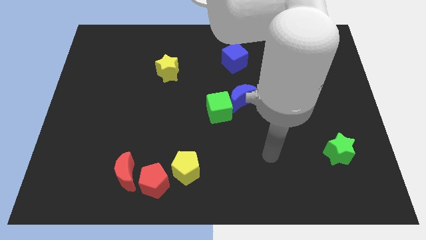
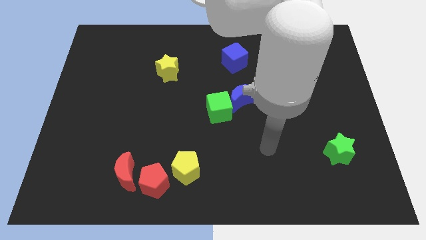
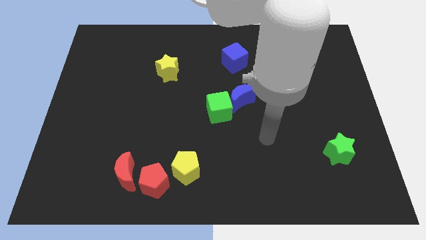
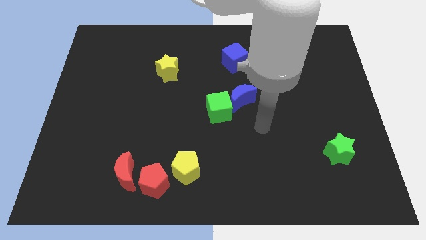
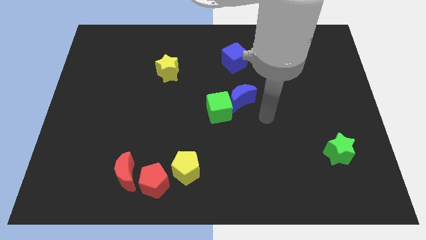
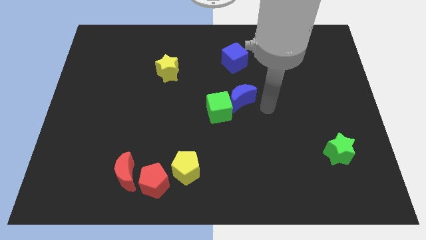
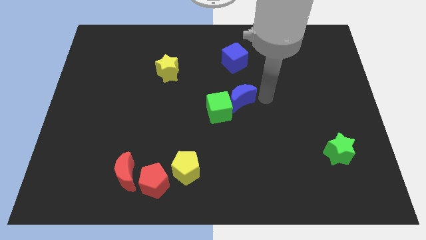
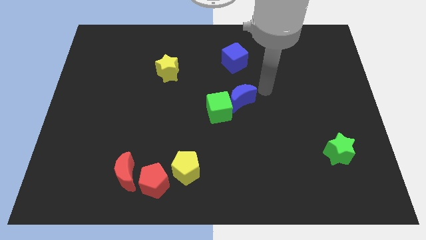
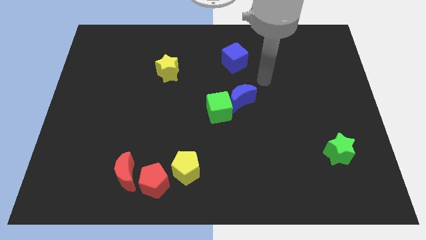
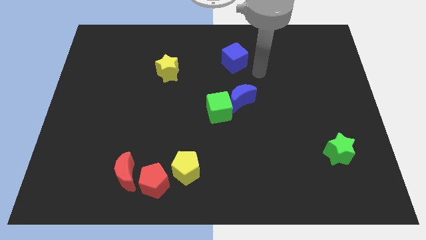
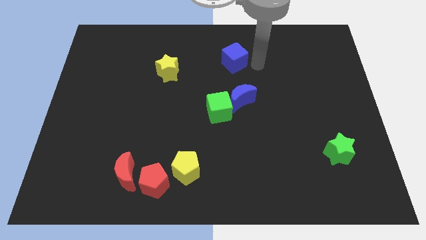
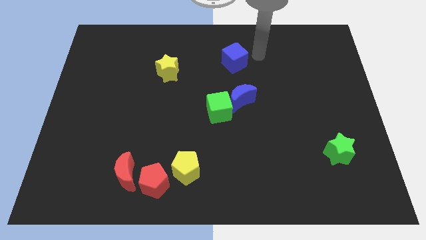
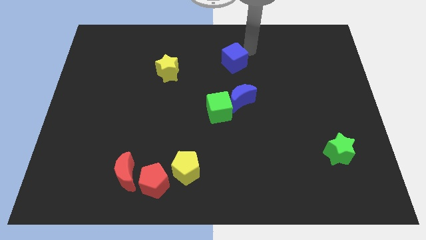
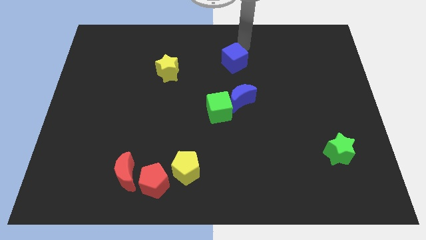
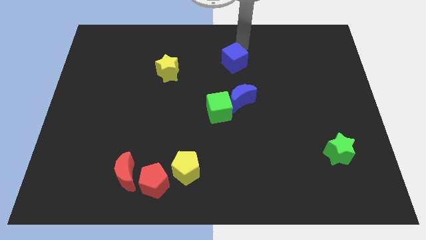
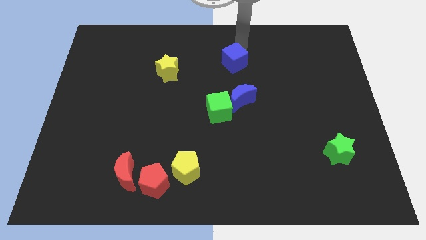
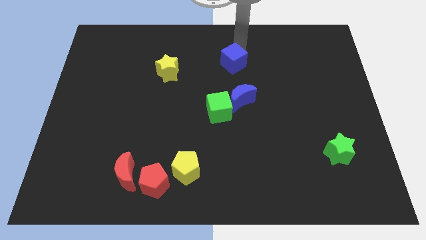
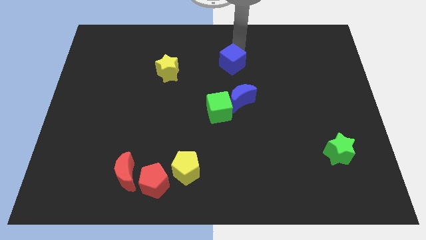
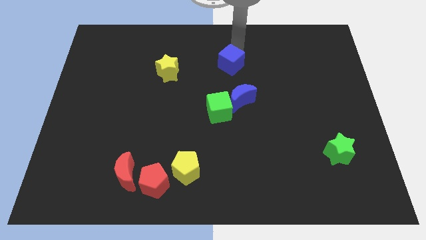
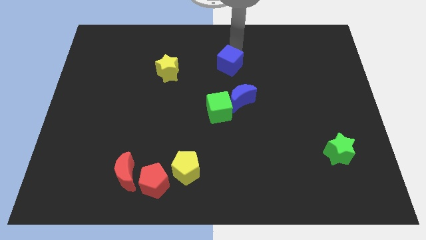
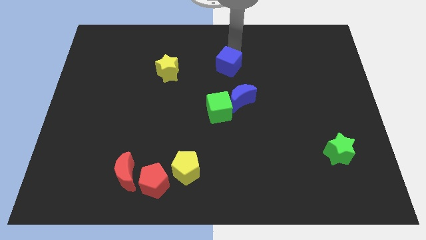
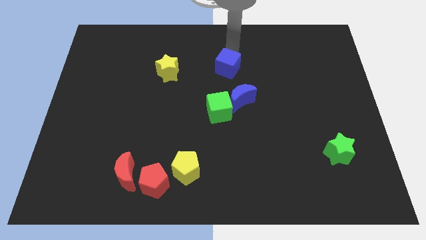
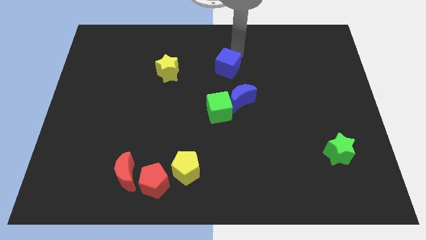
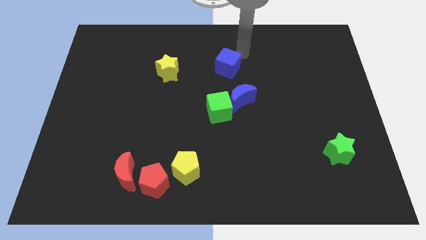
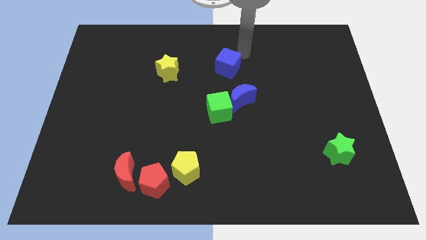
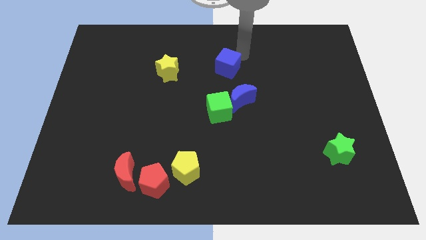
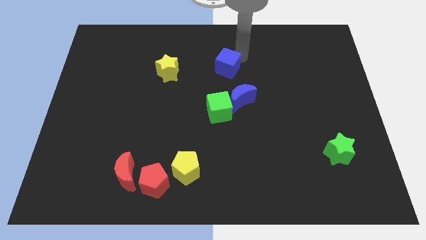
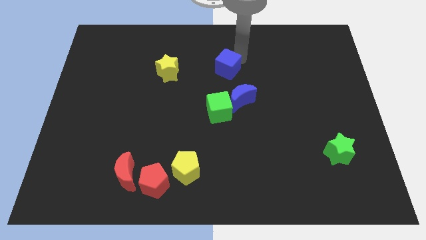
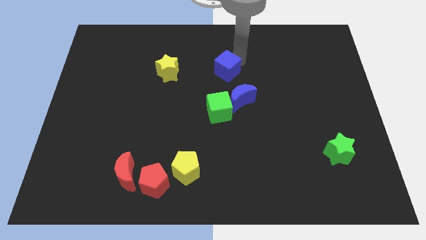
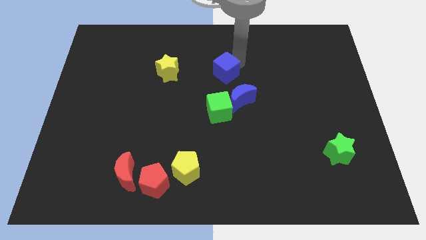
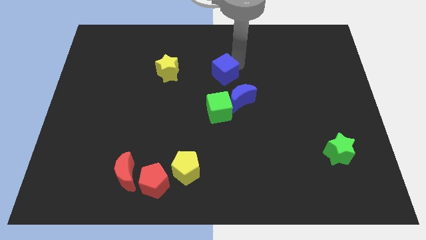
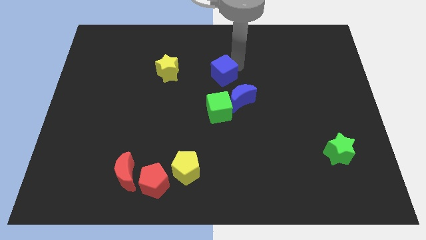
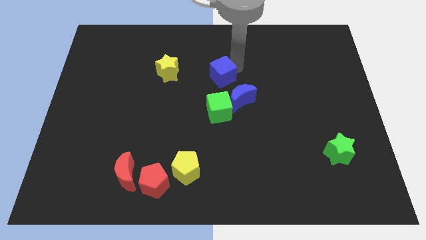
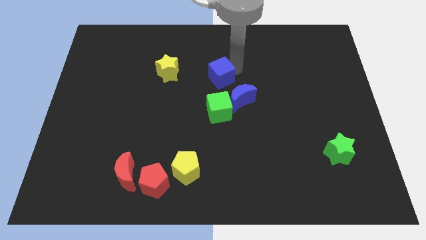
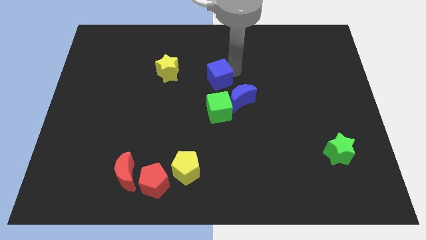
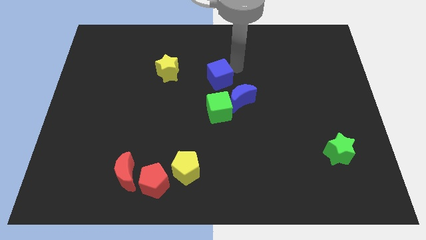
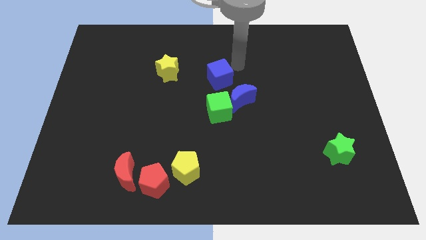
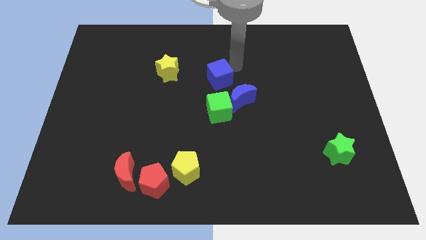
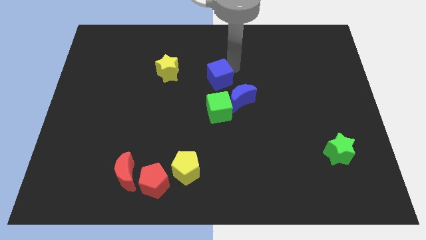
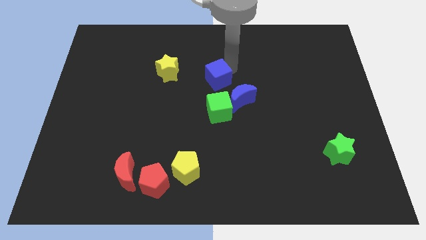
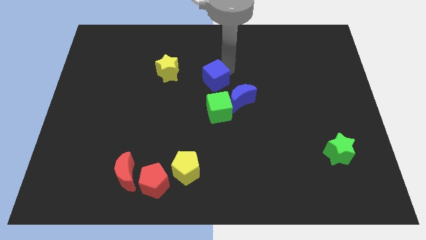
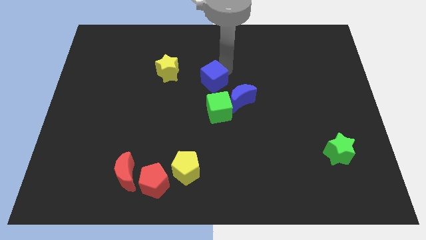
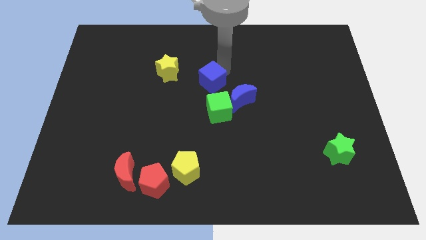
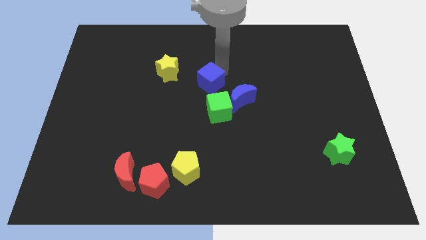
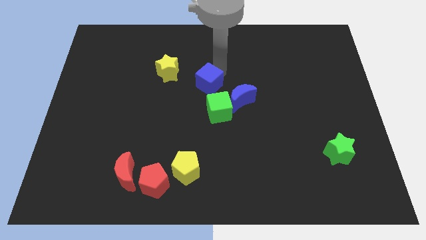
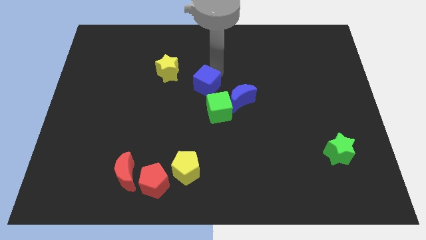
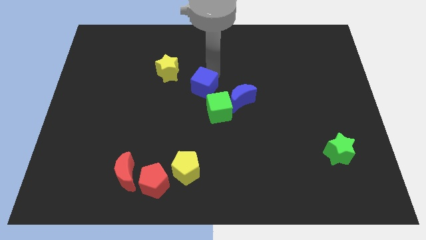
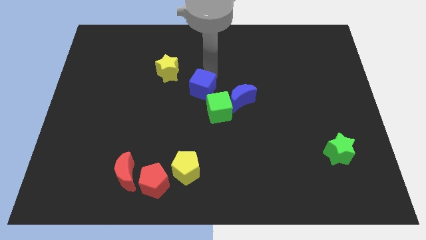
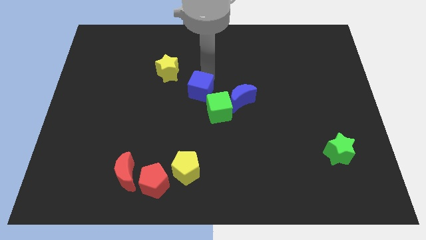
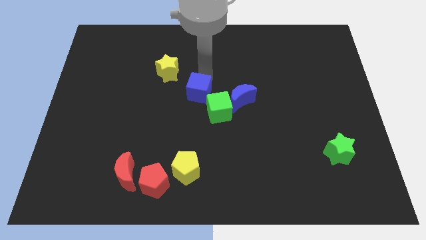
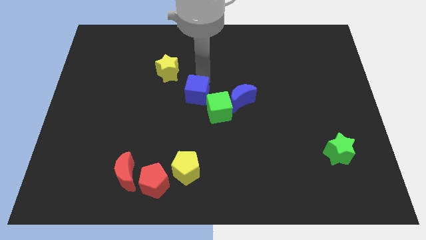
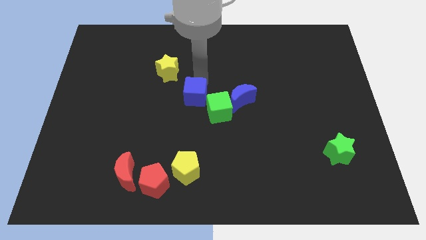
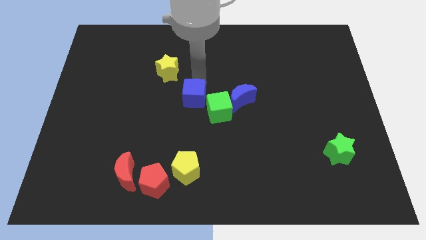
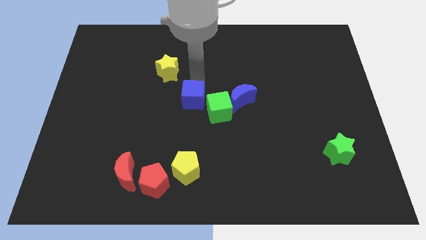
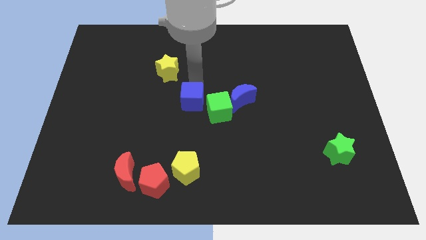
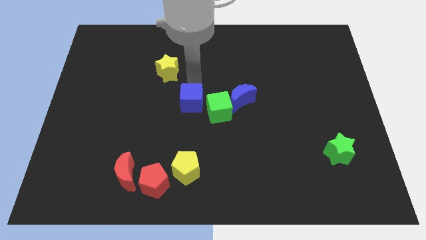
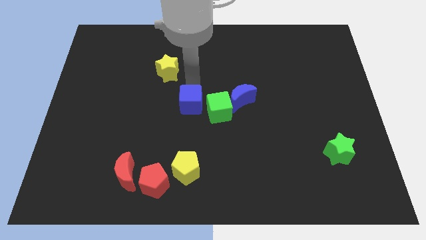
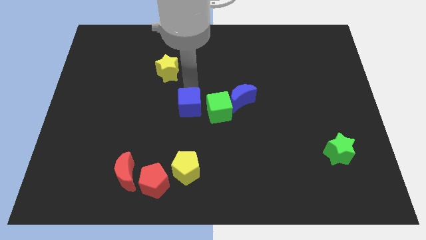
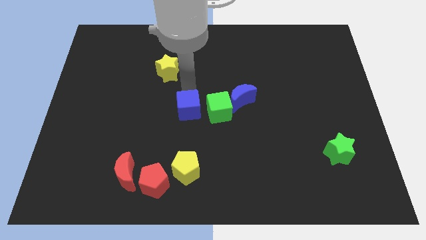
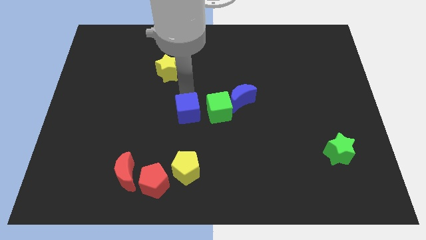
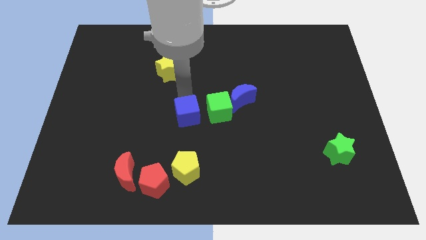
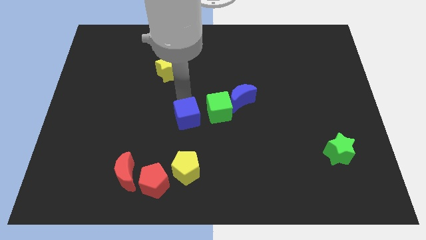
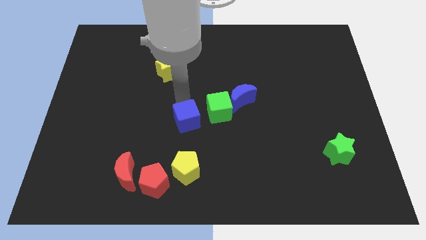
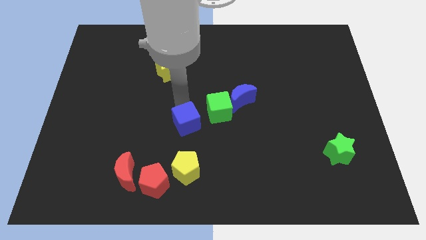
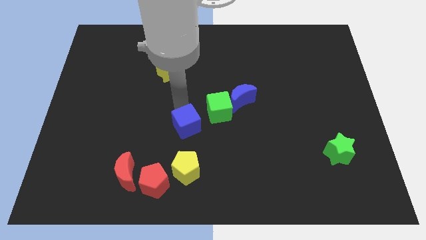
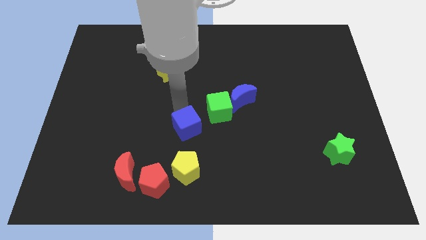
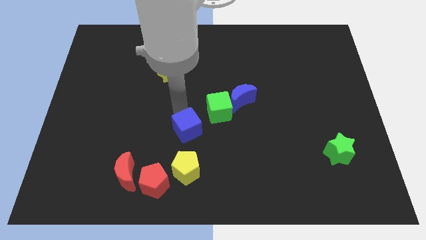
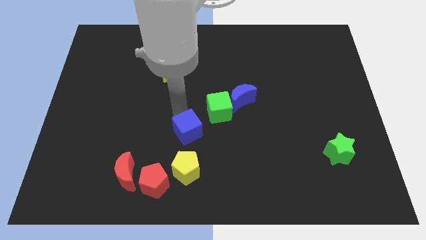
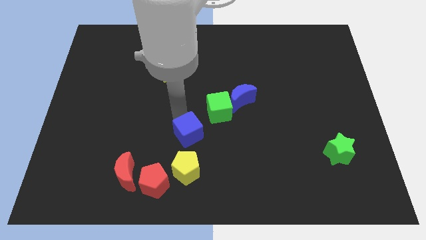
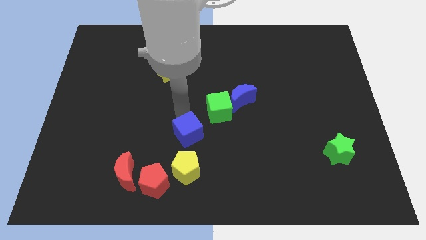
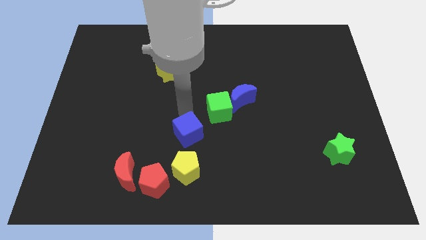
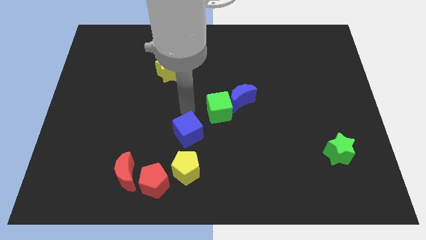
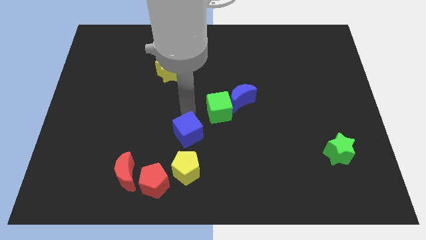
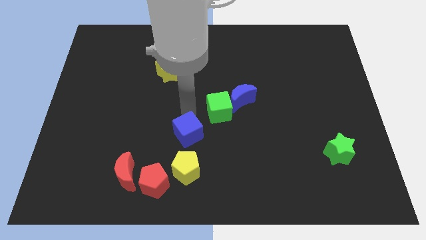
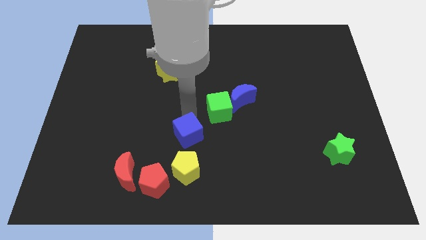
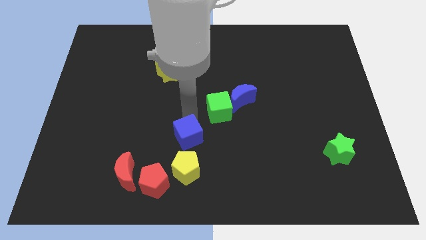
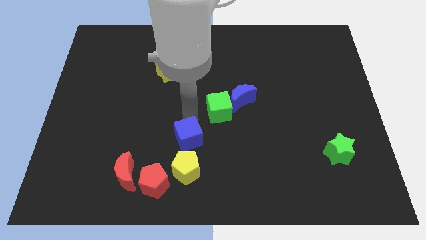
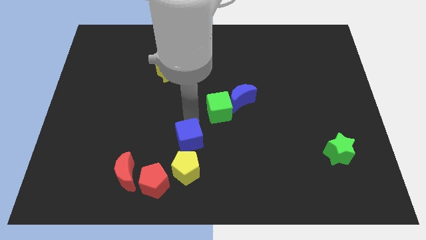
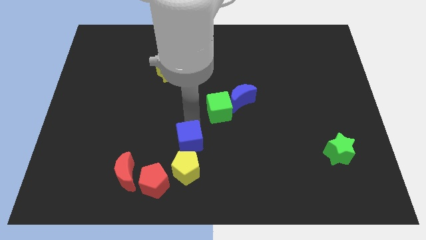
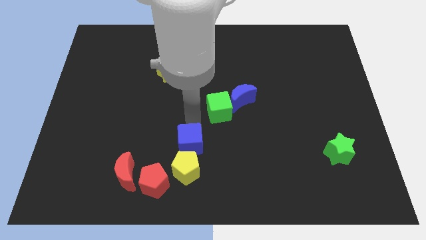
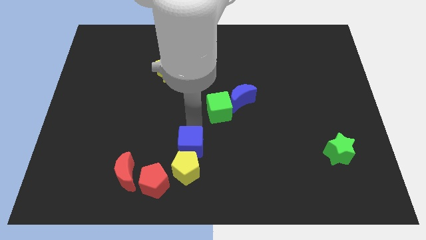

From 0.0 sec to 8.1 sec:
move the blue cube next to the yellow pentagon

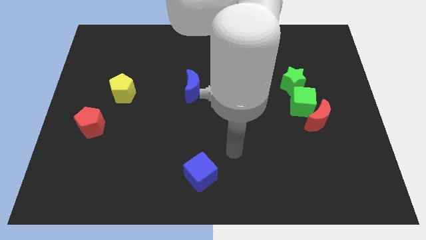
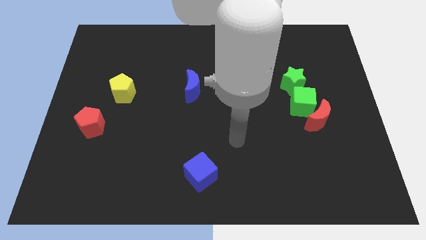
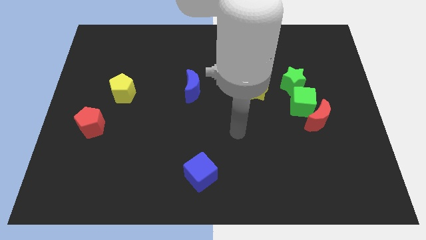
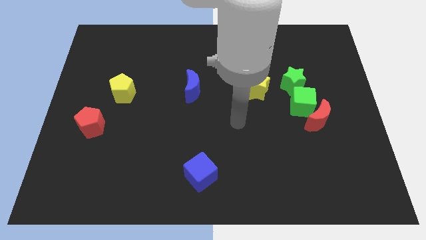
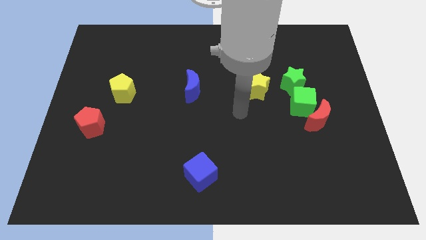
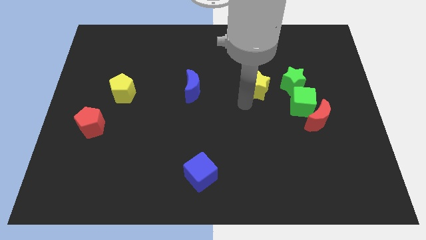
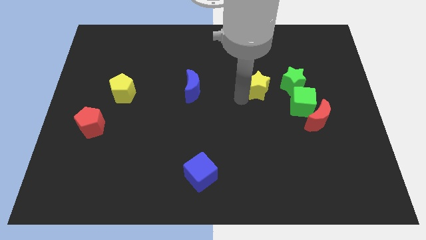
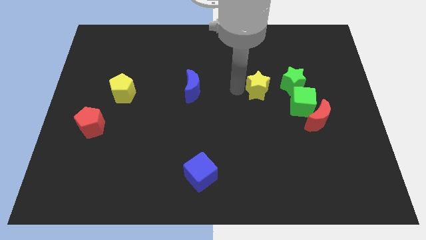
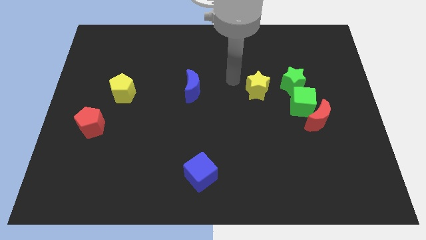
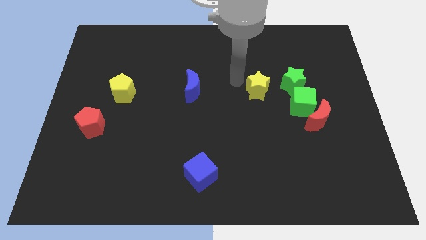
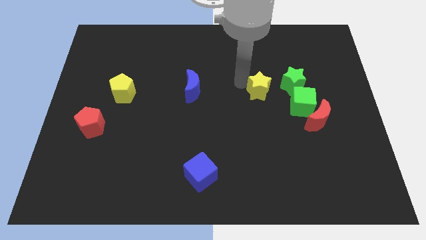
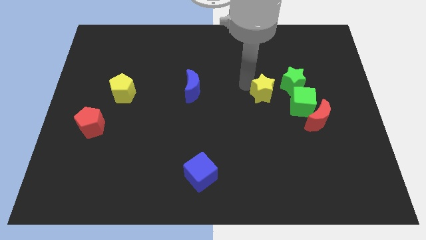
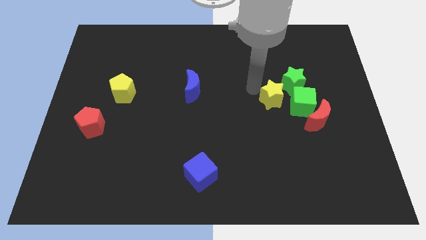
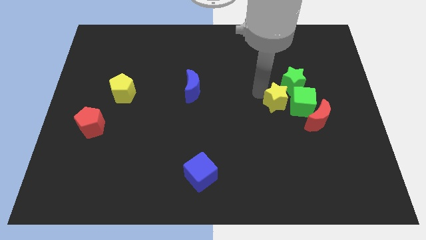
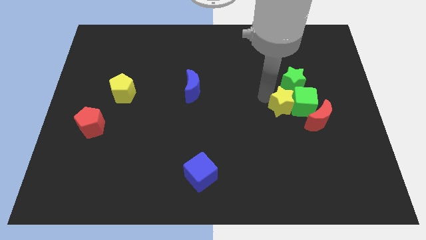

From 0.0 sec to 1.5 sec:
move the yellow star close to the green cube
